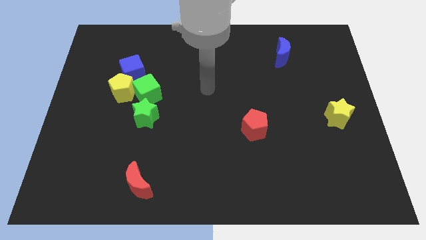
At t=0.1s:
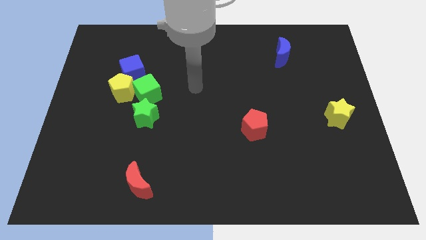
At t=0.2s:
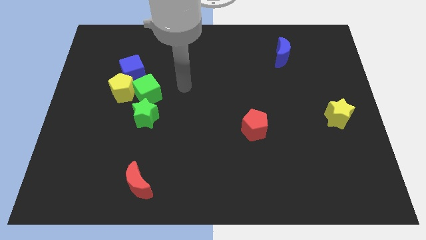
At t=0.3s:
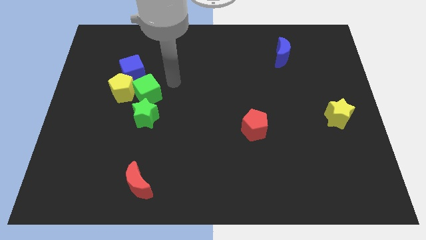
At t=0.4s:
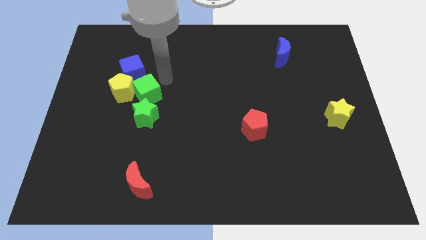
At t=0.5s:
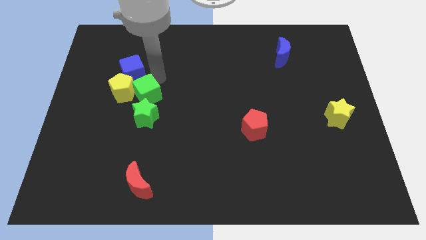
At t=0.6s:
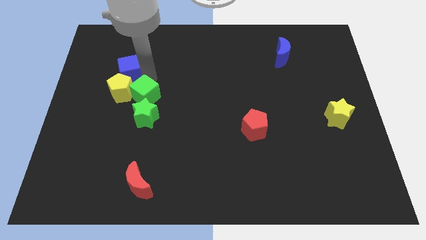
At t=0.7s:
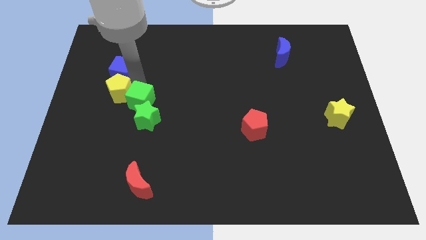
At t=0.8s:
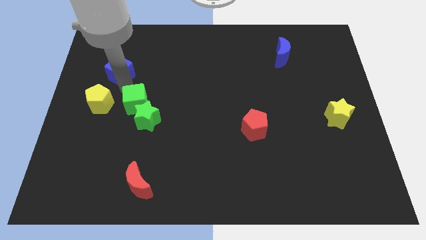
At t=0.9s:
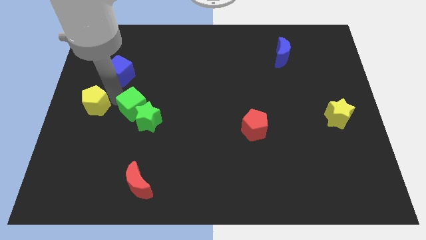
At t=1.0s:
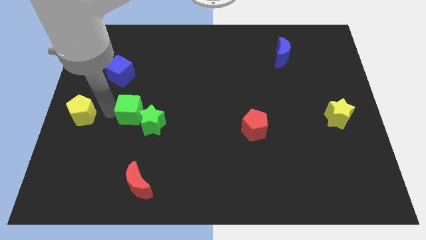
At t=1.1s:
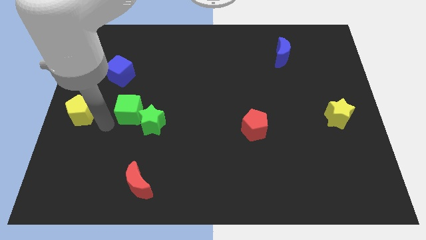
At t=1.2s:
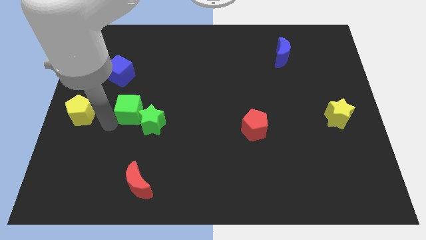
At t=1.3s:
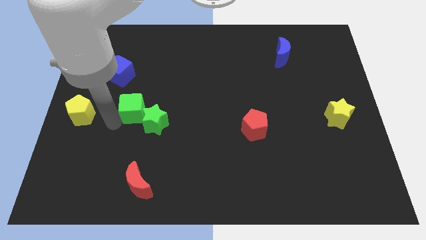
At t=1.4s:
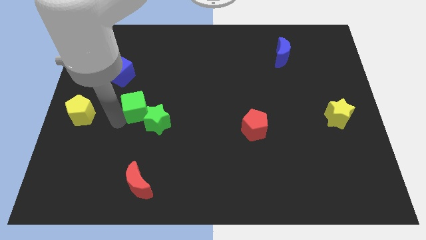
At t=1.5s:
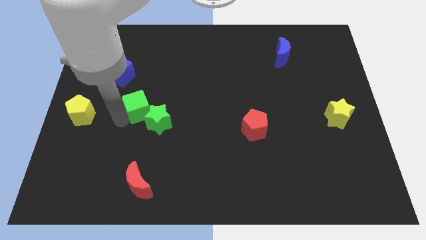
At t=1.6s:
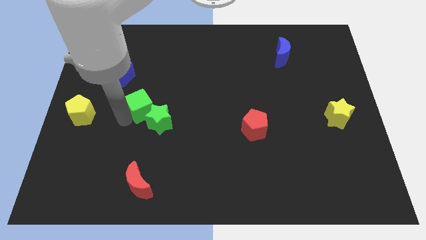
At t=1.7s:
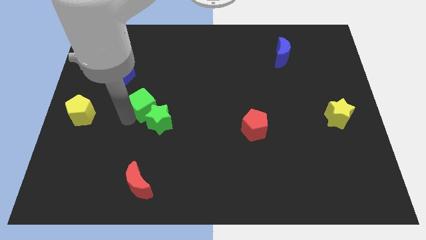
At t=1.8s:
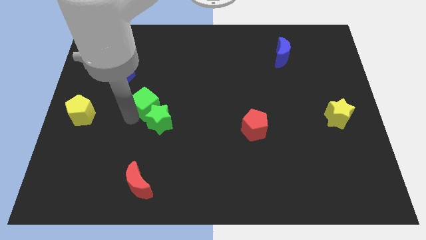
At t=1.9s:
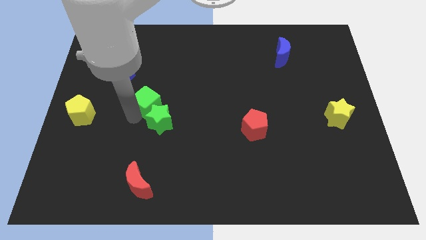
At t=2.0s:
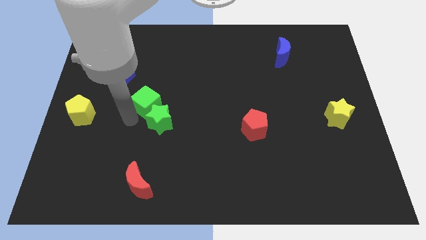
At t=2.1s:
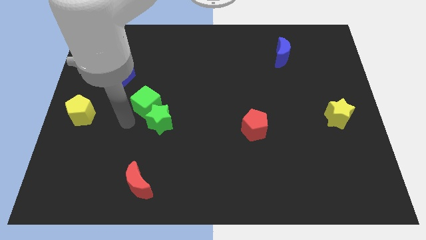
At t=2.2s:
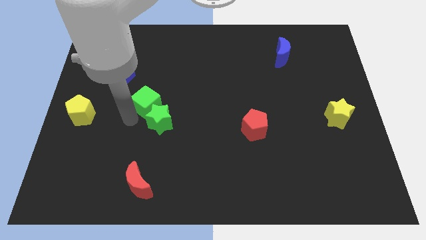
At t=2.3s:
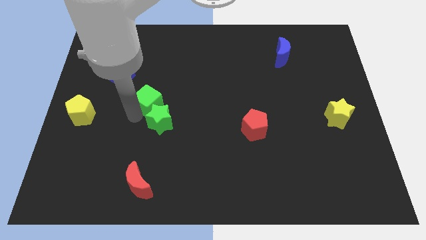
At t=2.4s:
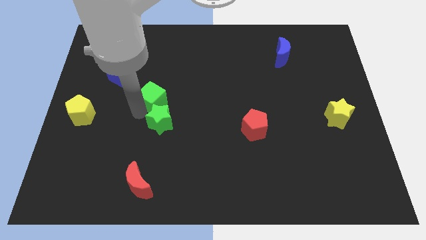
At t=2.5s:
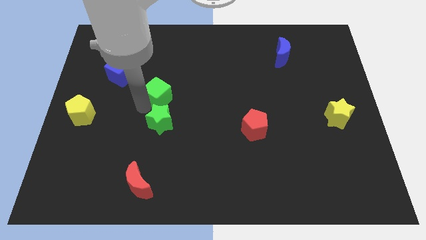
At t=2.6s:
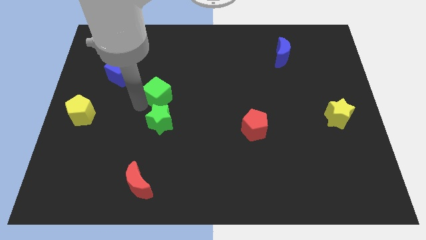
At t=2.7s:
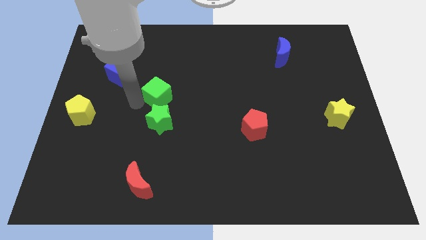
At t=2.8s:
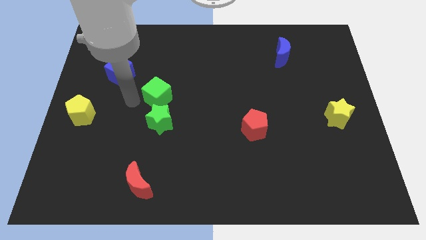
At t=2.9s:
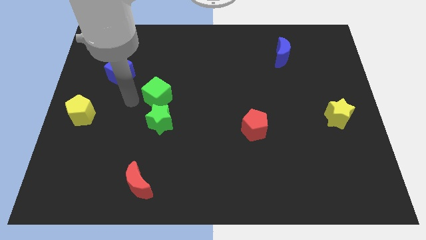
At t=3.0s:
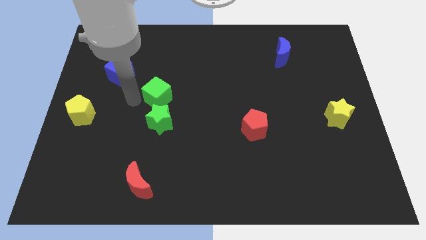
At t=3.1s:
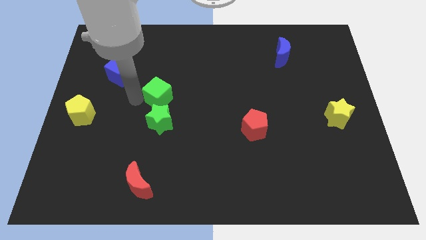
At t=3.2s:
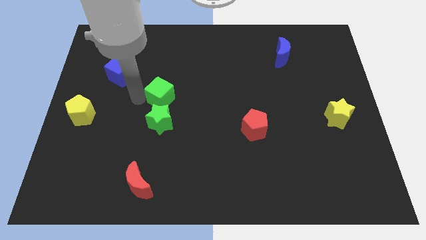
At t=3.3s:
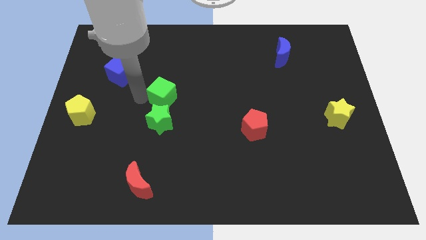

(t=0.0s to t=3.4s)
move the green cube away from the yellow pentagon, green star, and blue cube

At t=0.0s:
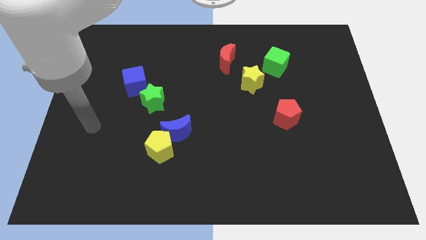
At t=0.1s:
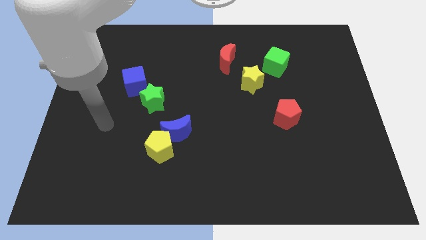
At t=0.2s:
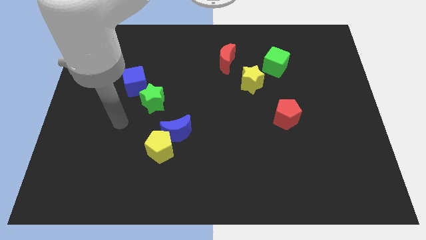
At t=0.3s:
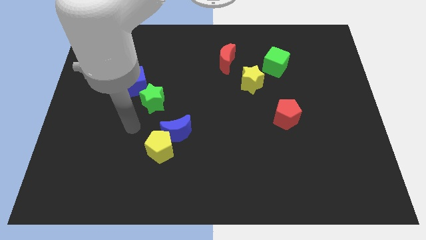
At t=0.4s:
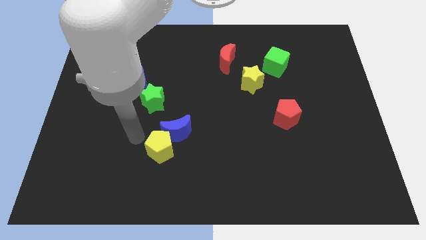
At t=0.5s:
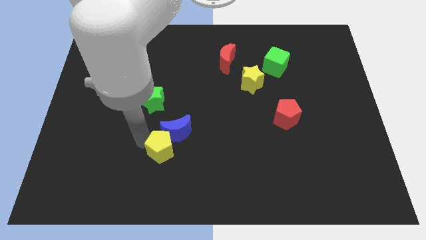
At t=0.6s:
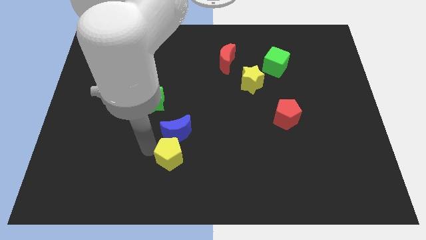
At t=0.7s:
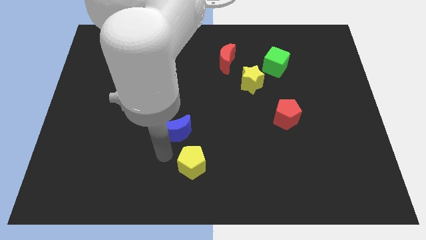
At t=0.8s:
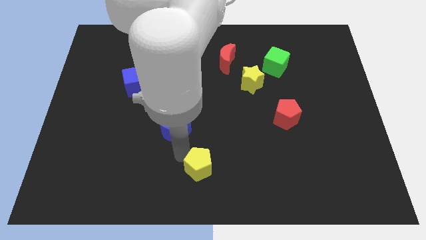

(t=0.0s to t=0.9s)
separate the blue moon from the yellow pentagon

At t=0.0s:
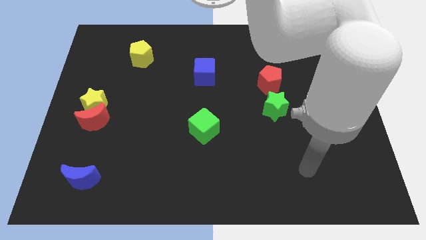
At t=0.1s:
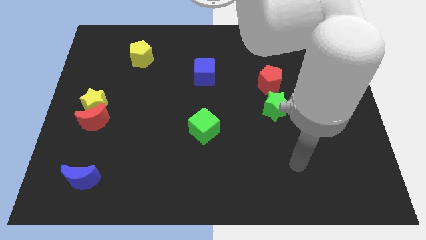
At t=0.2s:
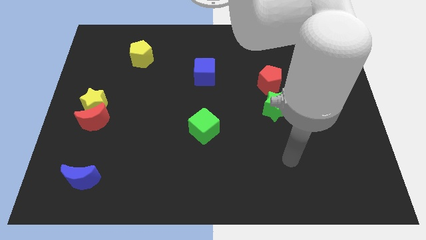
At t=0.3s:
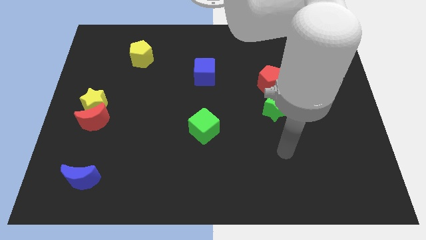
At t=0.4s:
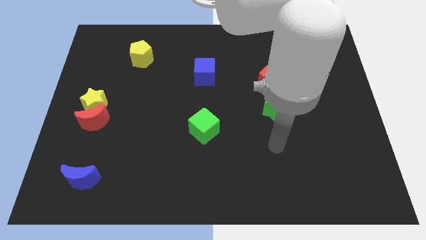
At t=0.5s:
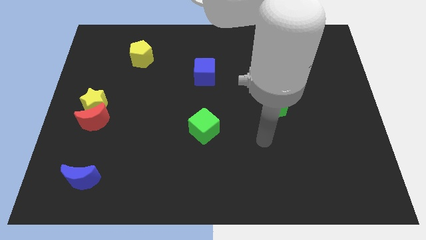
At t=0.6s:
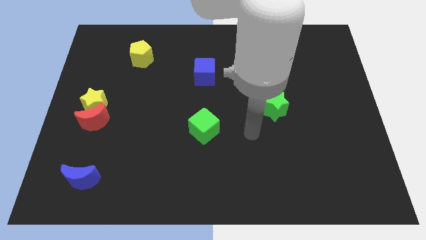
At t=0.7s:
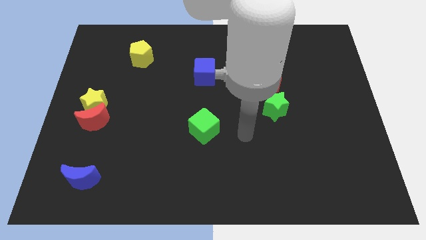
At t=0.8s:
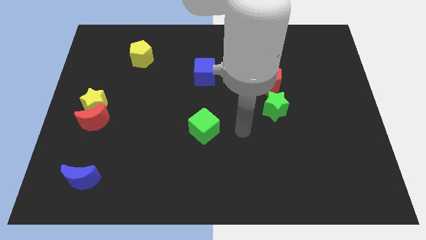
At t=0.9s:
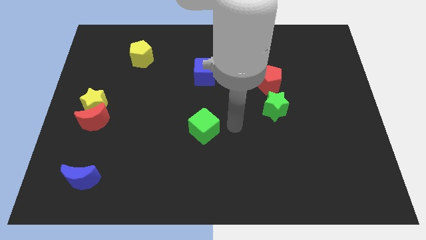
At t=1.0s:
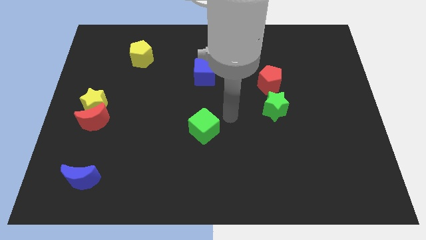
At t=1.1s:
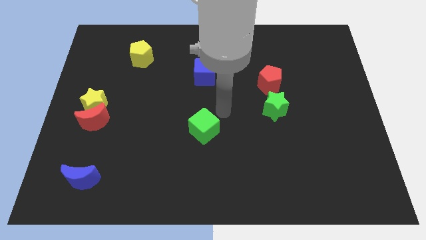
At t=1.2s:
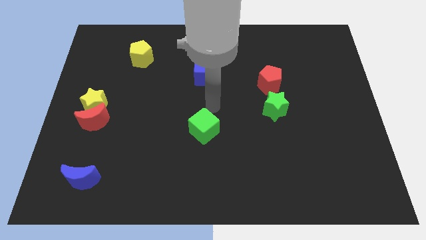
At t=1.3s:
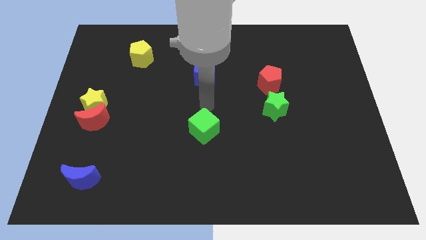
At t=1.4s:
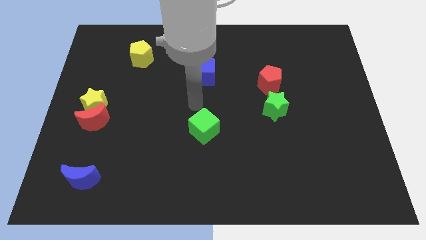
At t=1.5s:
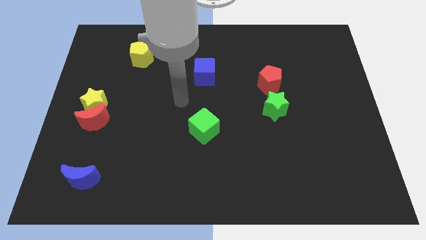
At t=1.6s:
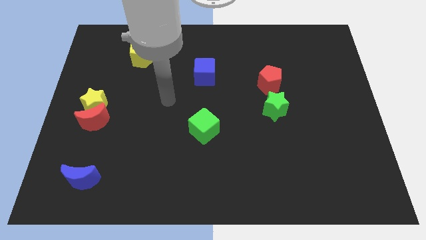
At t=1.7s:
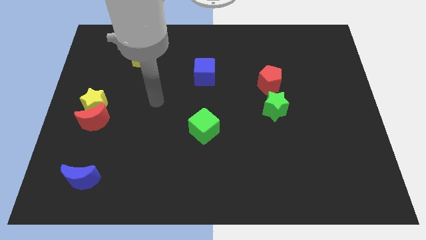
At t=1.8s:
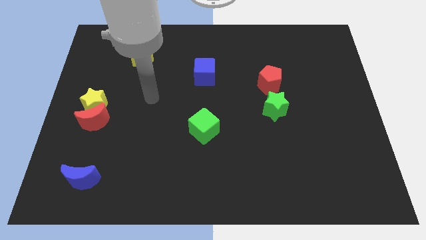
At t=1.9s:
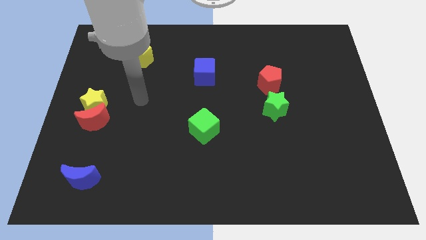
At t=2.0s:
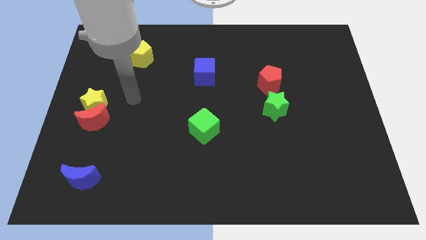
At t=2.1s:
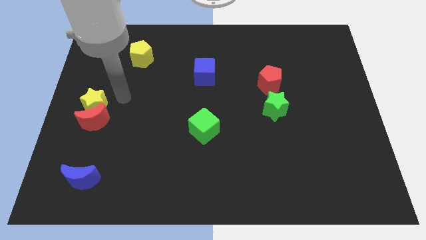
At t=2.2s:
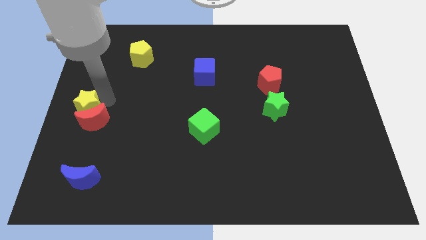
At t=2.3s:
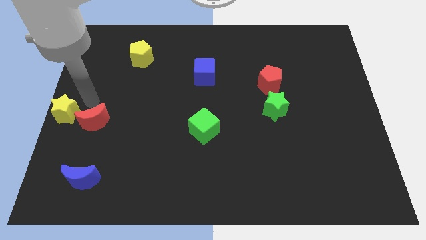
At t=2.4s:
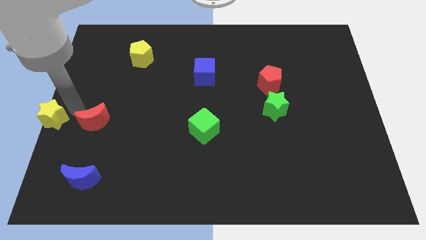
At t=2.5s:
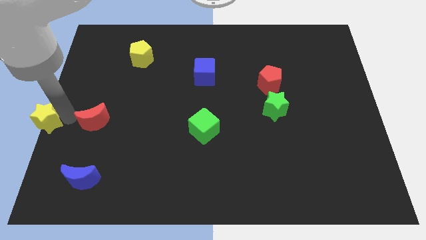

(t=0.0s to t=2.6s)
pull the red moon apart from the yellow star

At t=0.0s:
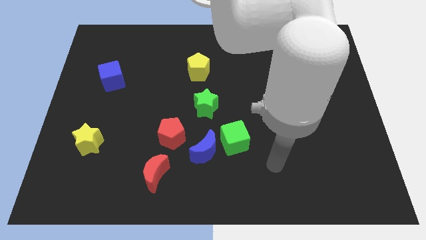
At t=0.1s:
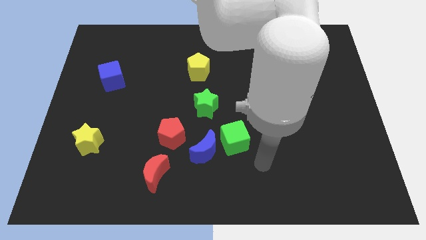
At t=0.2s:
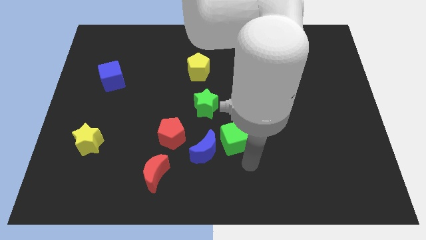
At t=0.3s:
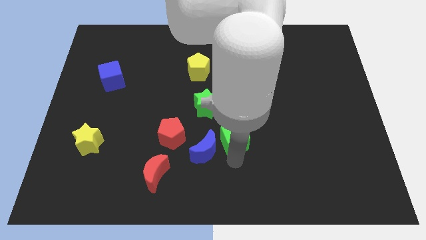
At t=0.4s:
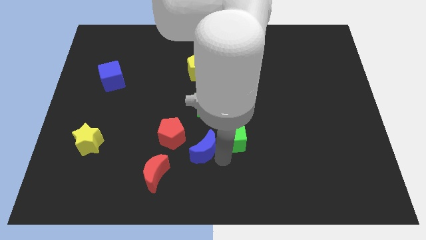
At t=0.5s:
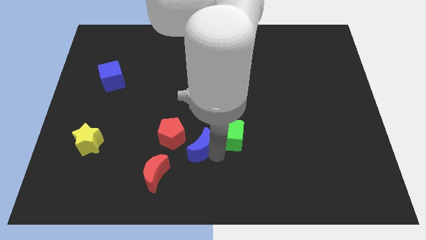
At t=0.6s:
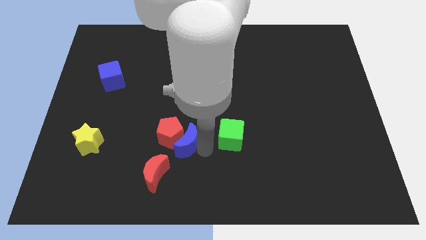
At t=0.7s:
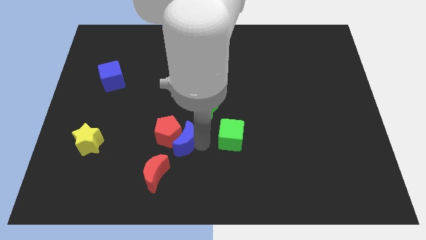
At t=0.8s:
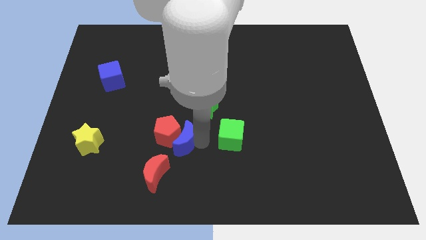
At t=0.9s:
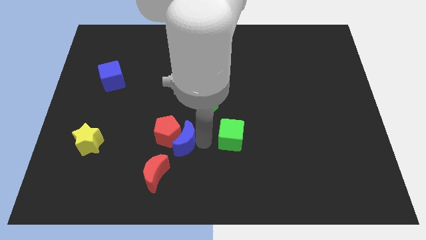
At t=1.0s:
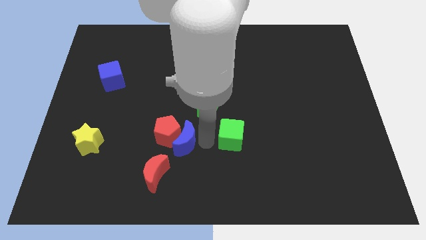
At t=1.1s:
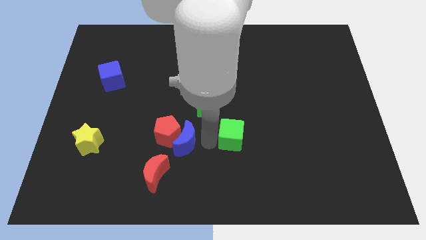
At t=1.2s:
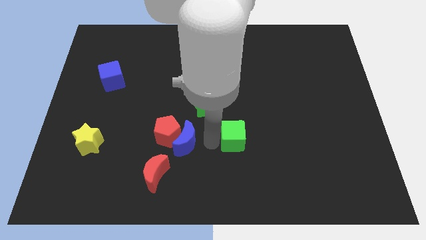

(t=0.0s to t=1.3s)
pull the green cube apart from the blue moon

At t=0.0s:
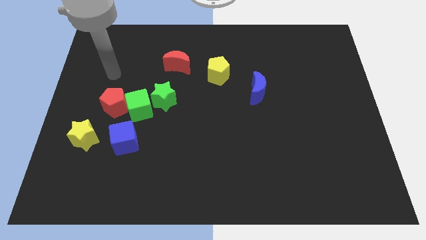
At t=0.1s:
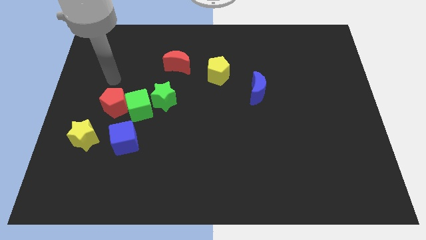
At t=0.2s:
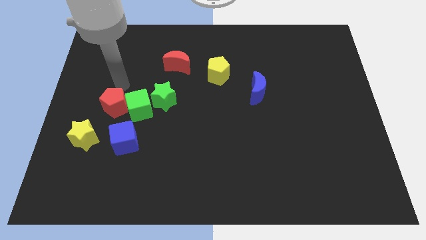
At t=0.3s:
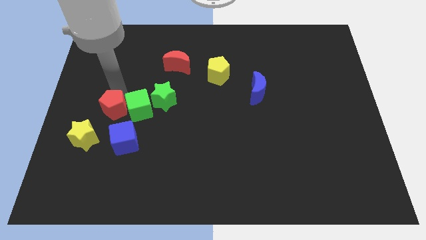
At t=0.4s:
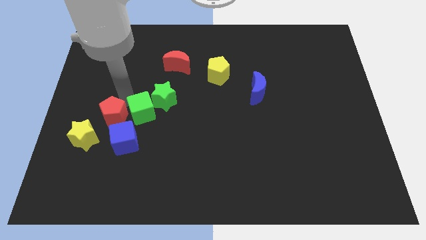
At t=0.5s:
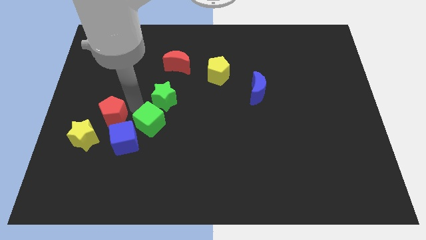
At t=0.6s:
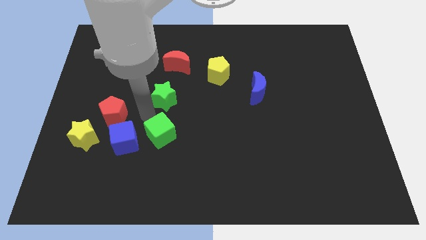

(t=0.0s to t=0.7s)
separate the green star from the green cube

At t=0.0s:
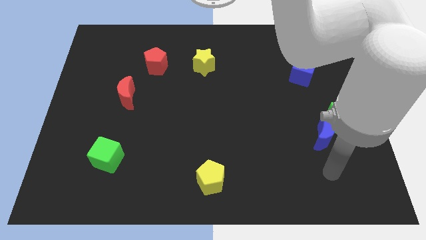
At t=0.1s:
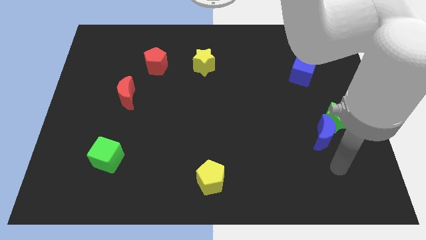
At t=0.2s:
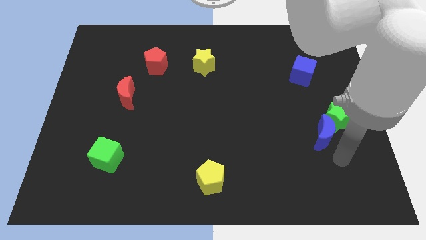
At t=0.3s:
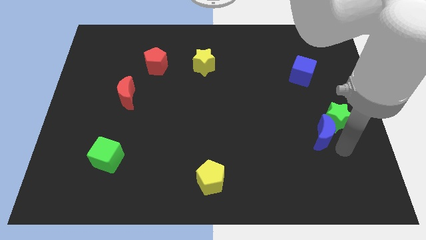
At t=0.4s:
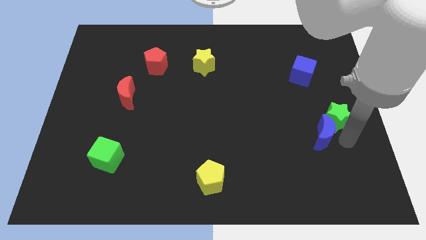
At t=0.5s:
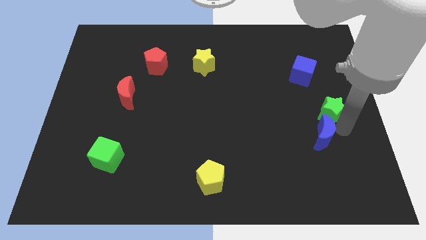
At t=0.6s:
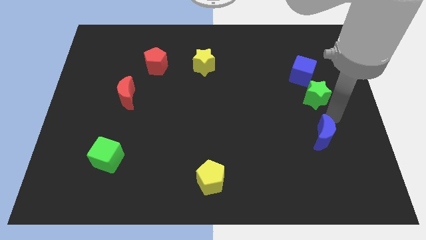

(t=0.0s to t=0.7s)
move the blue moon away from the green star
